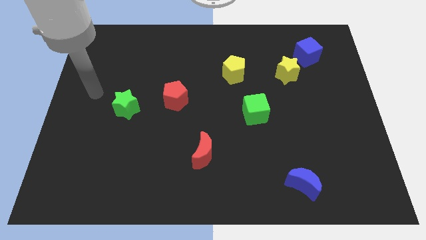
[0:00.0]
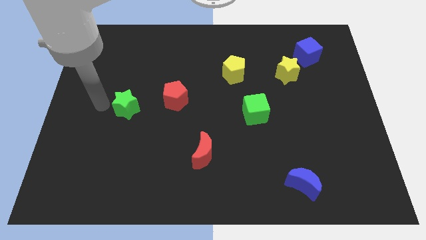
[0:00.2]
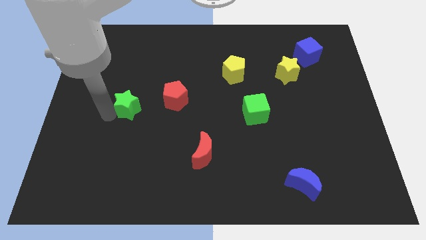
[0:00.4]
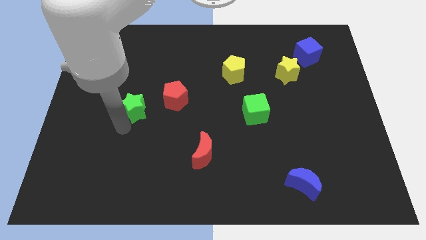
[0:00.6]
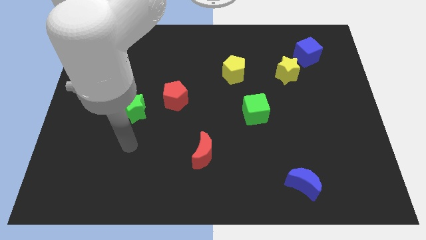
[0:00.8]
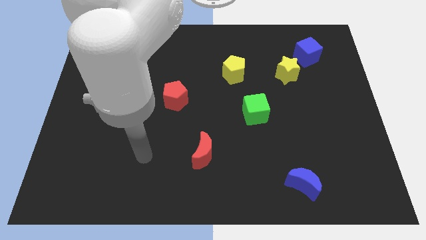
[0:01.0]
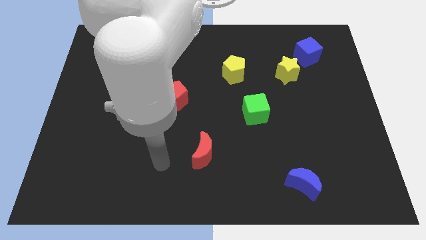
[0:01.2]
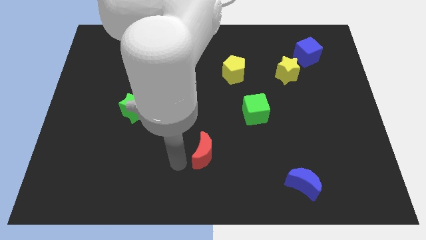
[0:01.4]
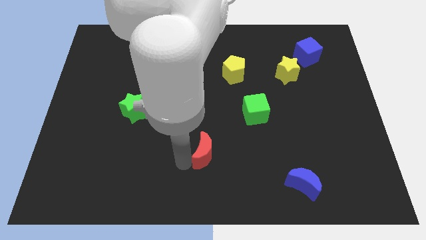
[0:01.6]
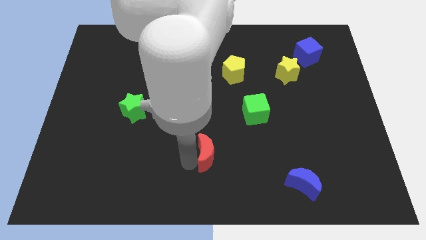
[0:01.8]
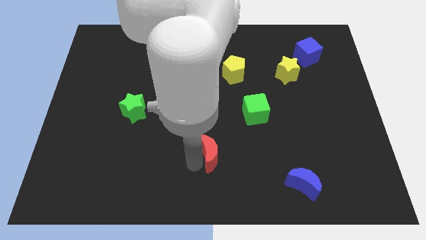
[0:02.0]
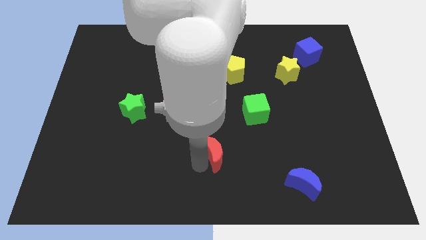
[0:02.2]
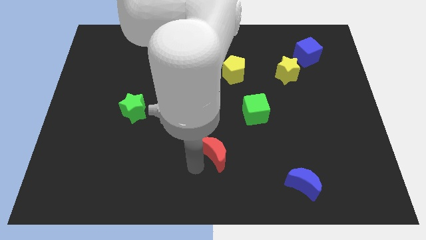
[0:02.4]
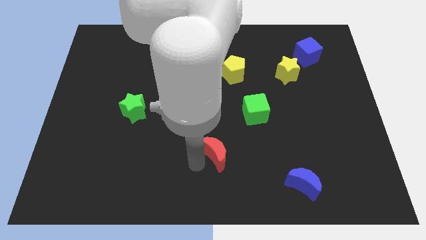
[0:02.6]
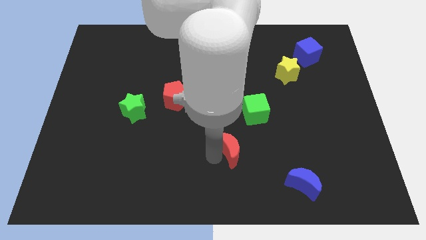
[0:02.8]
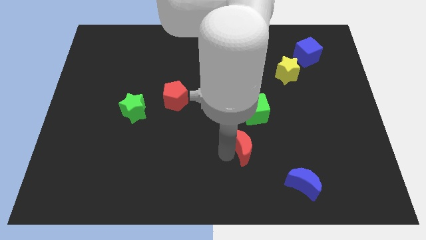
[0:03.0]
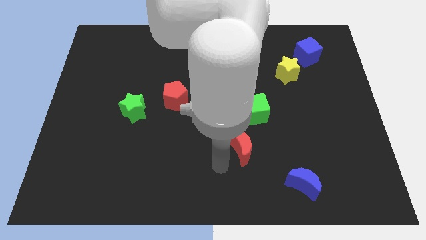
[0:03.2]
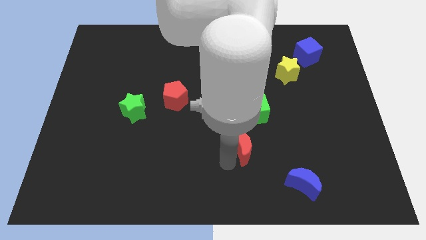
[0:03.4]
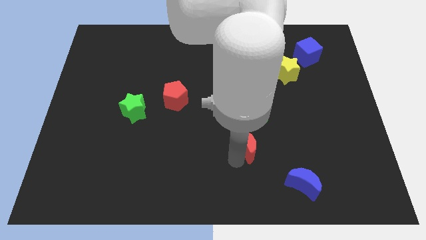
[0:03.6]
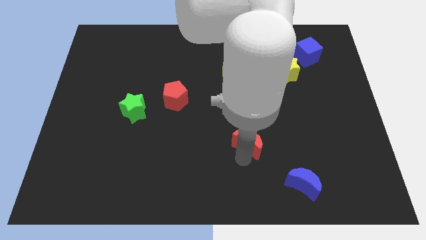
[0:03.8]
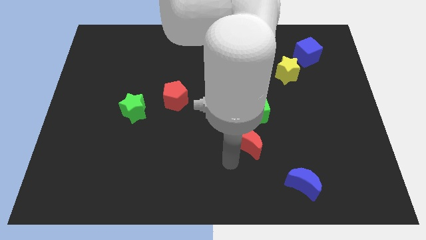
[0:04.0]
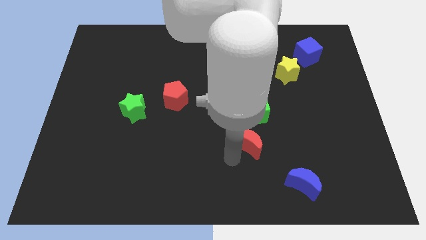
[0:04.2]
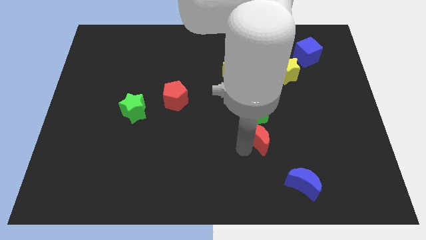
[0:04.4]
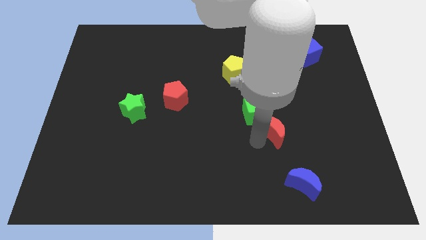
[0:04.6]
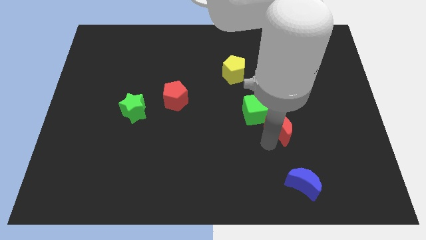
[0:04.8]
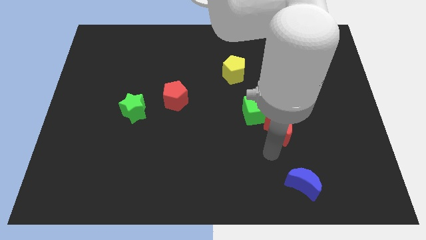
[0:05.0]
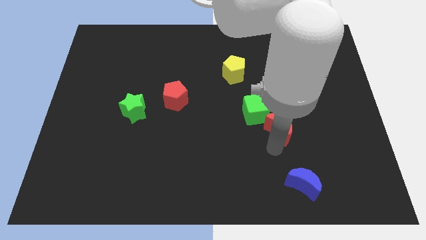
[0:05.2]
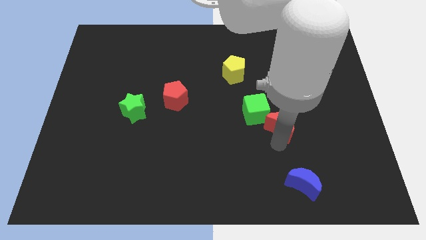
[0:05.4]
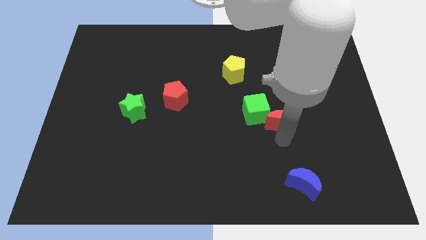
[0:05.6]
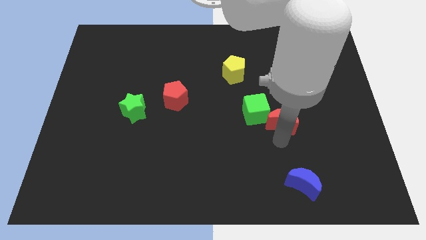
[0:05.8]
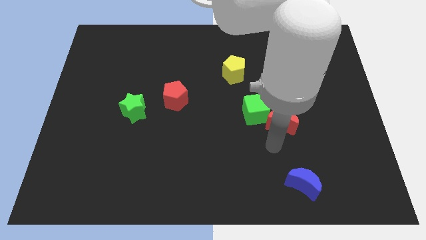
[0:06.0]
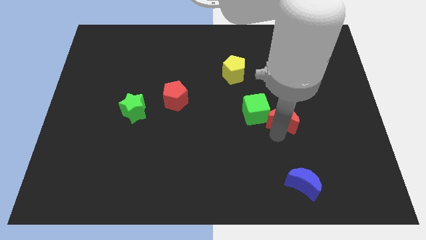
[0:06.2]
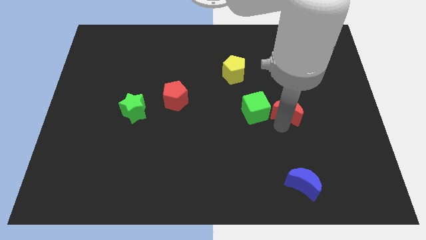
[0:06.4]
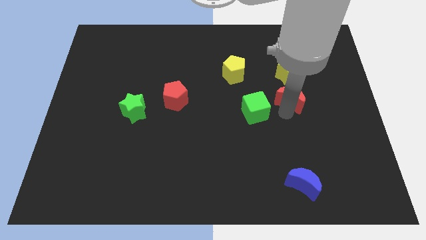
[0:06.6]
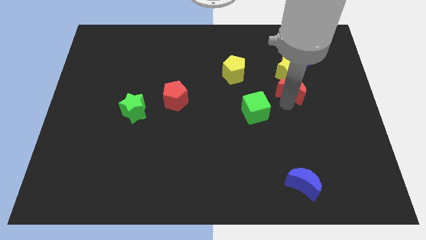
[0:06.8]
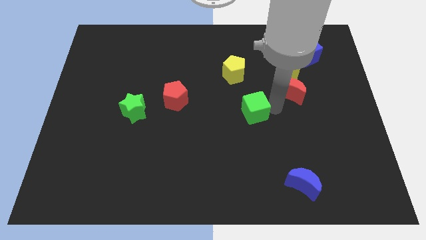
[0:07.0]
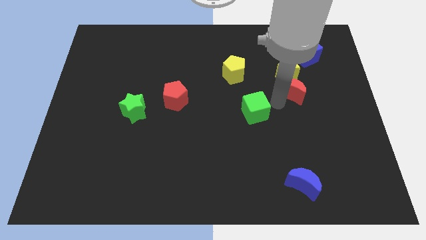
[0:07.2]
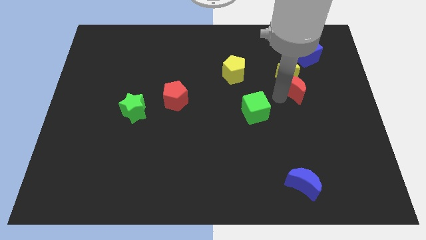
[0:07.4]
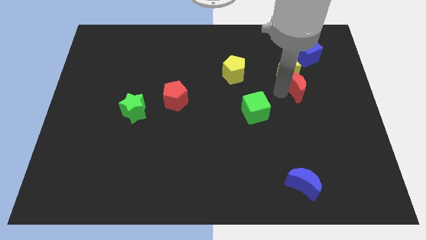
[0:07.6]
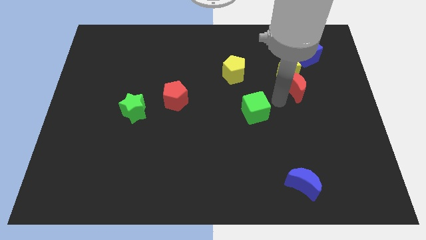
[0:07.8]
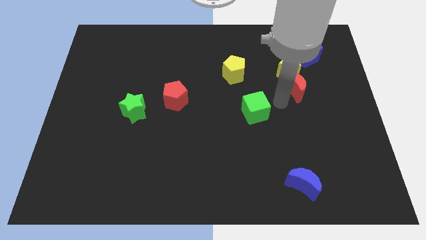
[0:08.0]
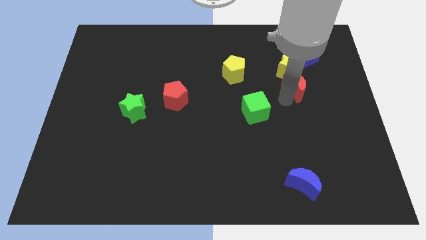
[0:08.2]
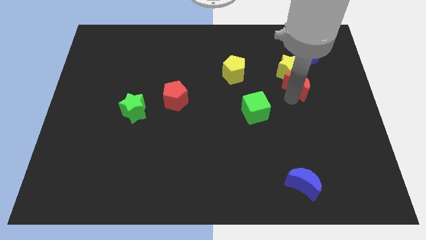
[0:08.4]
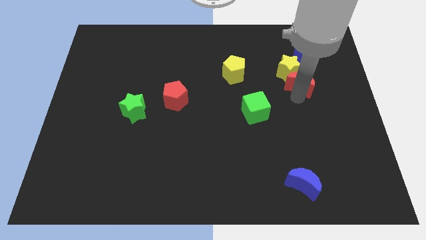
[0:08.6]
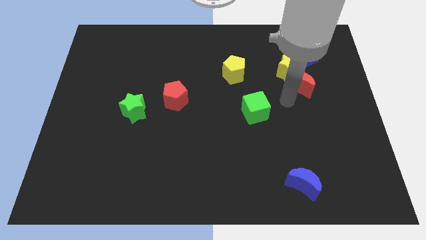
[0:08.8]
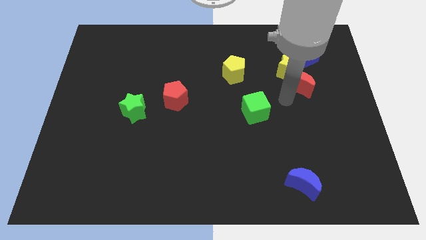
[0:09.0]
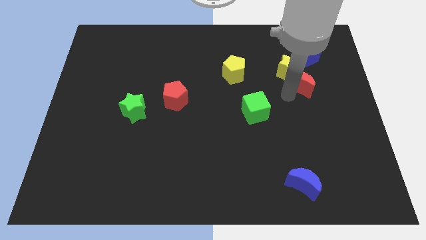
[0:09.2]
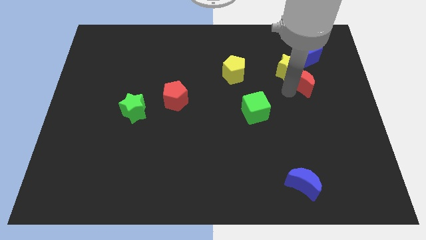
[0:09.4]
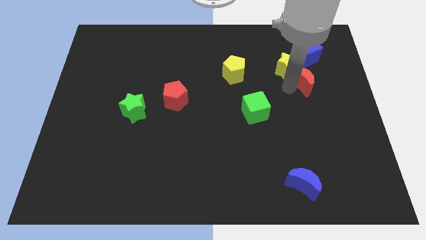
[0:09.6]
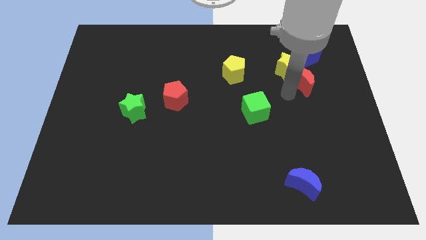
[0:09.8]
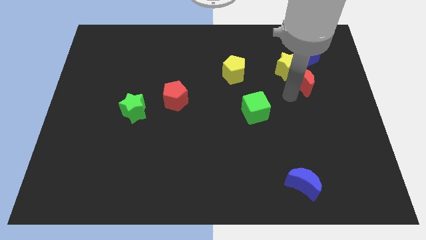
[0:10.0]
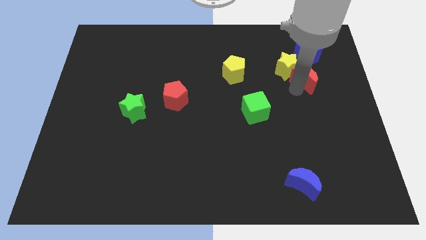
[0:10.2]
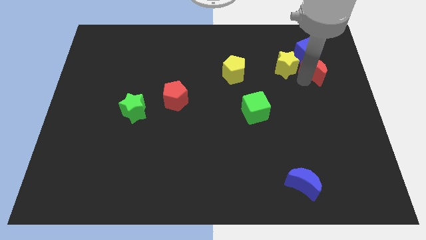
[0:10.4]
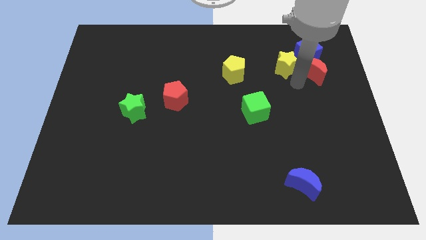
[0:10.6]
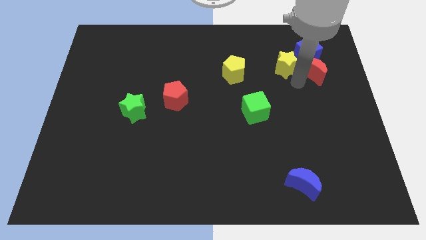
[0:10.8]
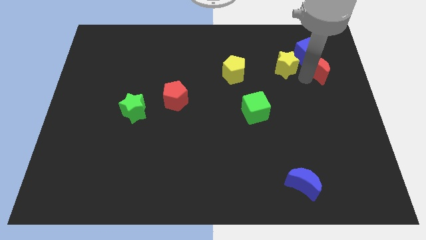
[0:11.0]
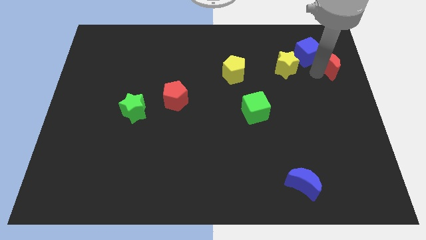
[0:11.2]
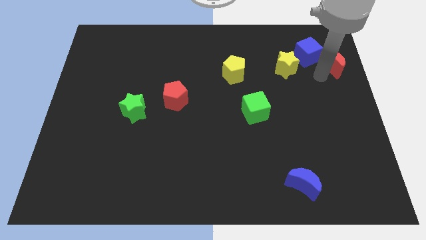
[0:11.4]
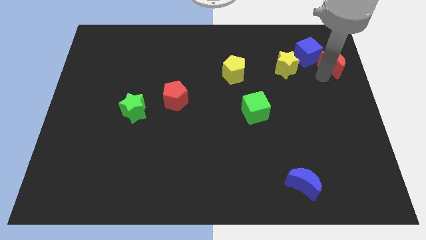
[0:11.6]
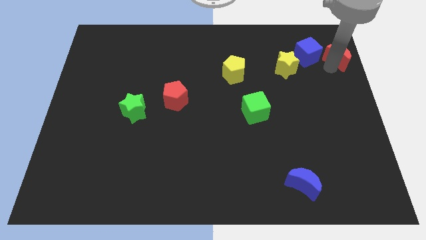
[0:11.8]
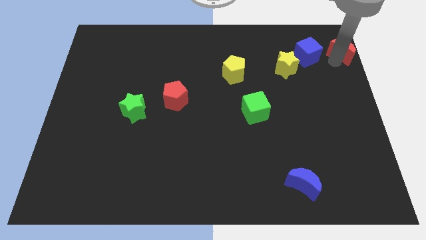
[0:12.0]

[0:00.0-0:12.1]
move the red moon to the top right of the board

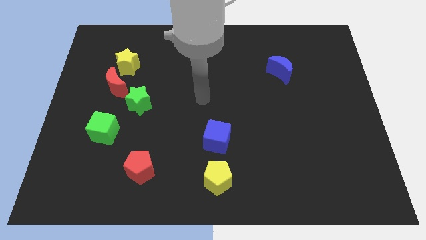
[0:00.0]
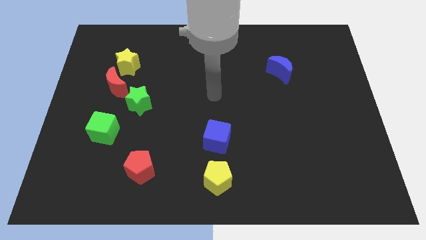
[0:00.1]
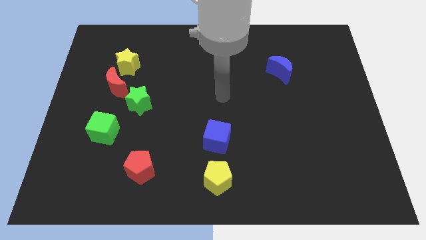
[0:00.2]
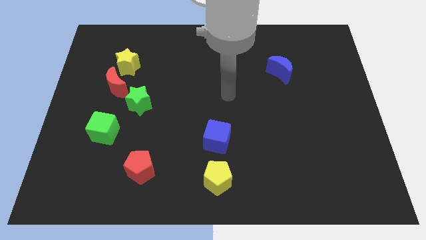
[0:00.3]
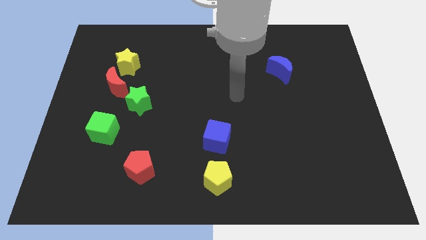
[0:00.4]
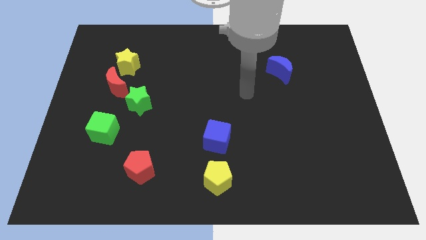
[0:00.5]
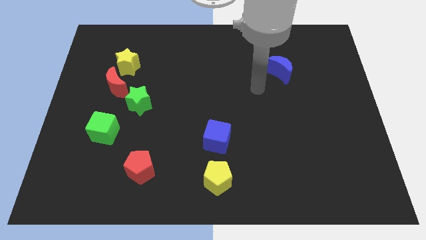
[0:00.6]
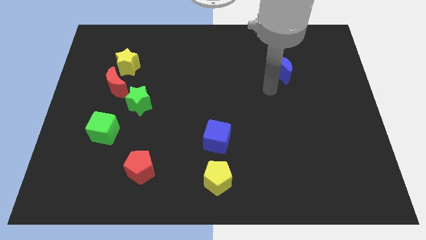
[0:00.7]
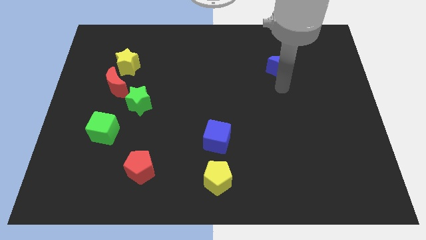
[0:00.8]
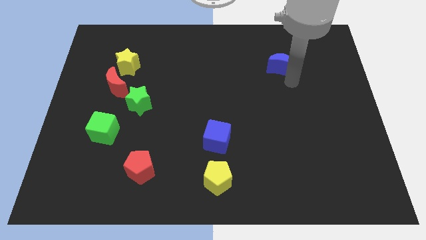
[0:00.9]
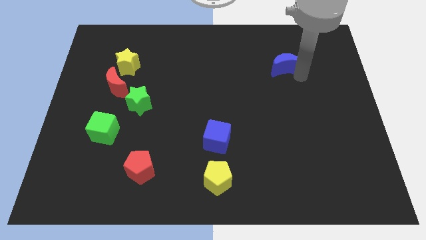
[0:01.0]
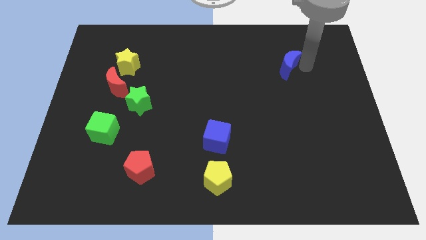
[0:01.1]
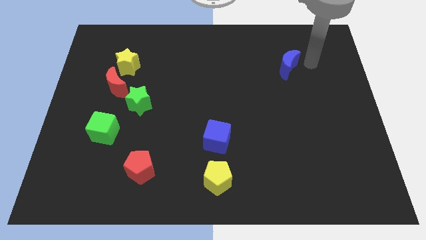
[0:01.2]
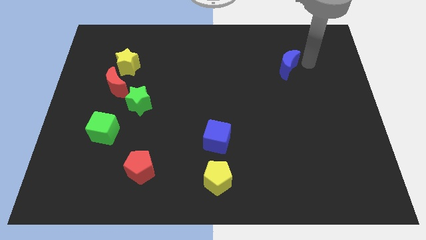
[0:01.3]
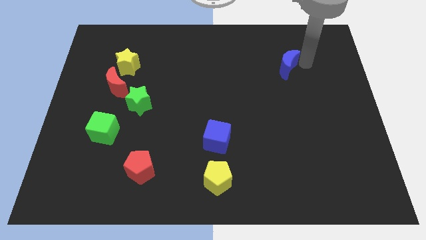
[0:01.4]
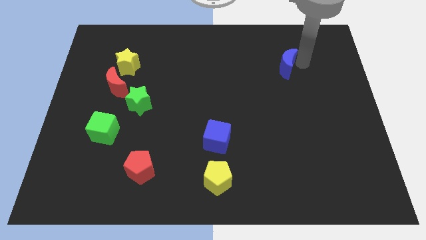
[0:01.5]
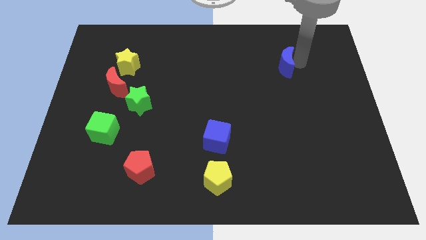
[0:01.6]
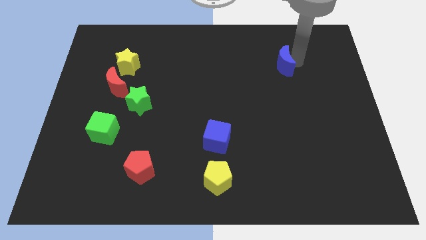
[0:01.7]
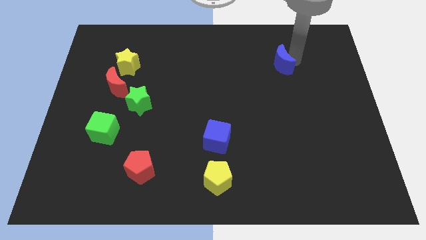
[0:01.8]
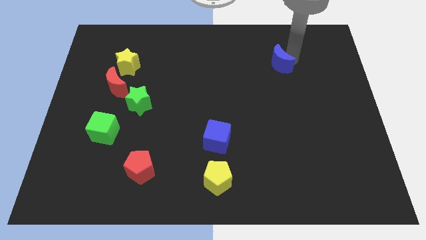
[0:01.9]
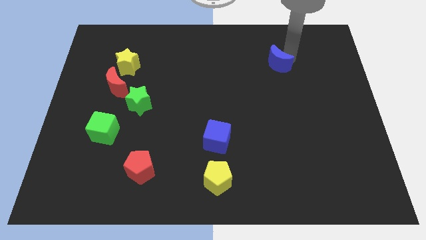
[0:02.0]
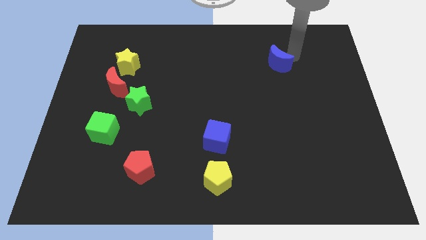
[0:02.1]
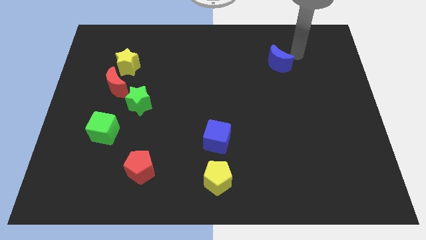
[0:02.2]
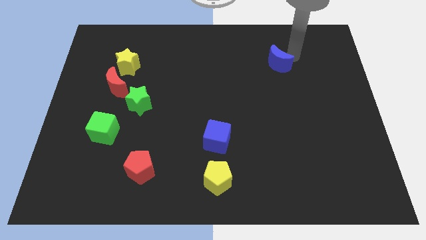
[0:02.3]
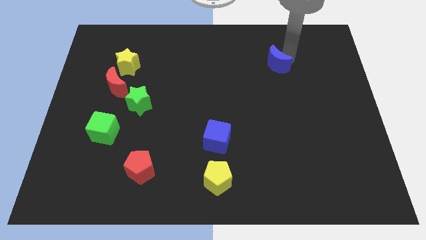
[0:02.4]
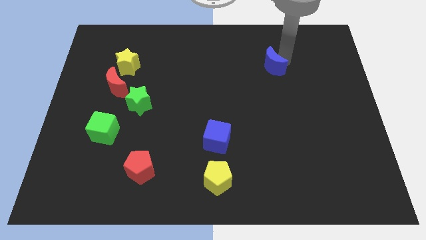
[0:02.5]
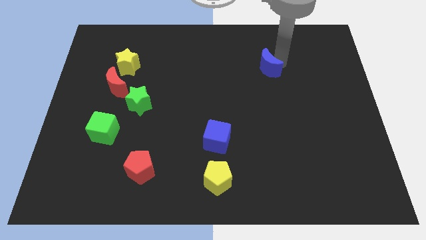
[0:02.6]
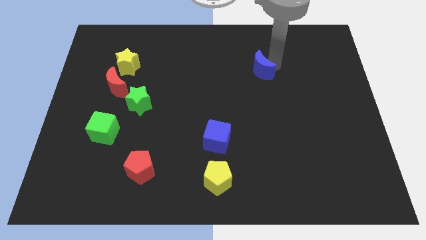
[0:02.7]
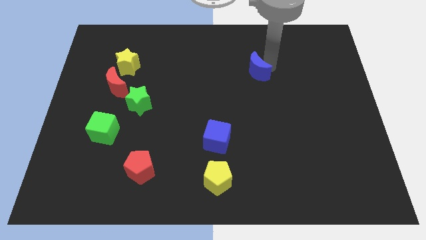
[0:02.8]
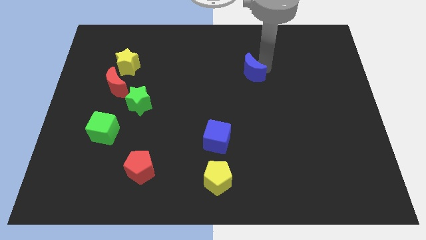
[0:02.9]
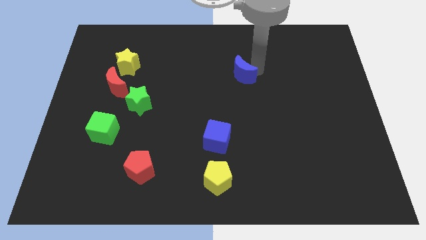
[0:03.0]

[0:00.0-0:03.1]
move the blue moon to the center of the board
